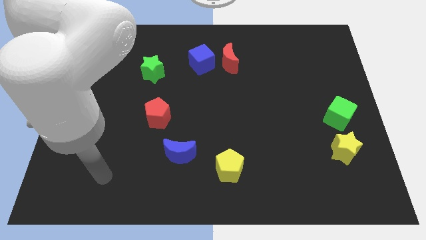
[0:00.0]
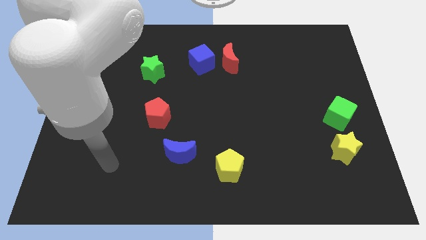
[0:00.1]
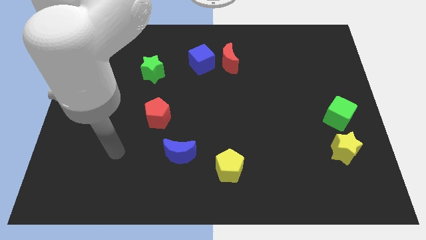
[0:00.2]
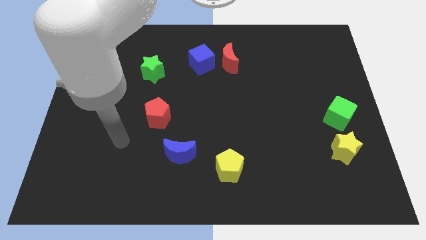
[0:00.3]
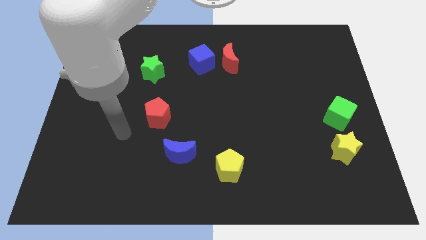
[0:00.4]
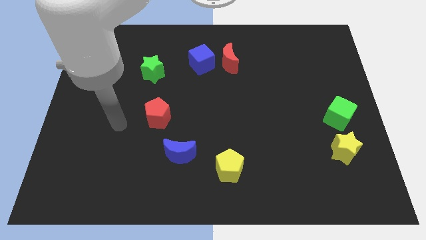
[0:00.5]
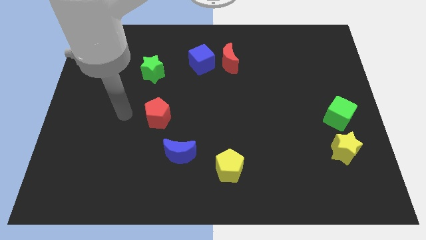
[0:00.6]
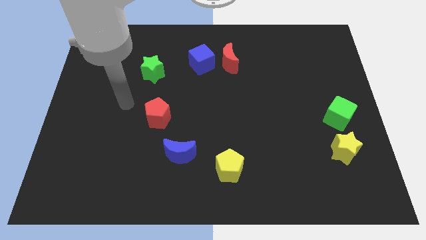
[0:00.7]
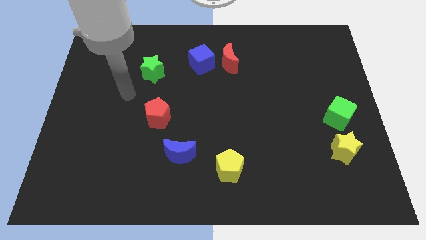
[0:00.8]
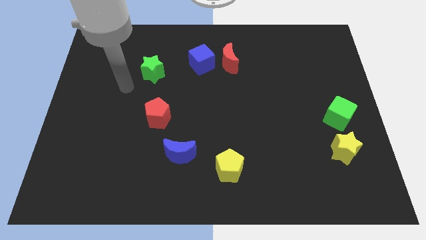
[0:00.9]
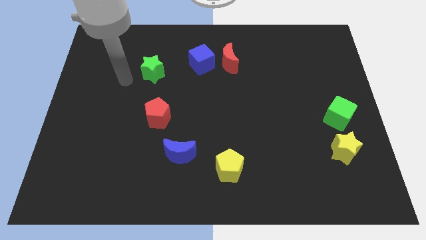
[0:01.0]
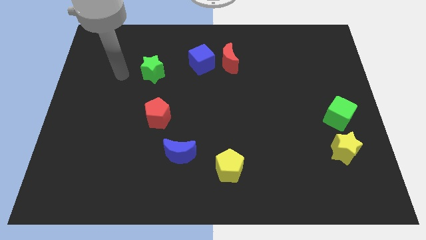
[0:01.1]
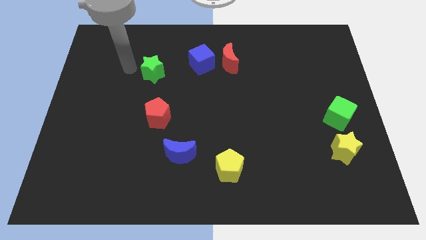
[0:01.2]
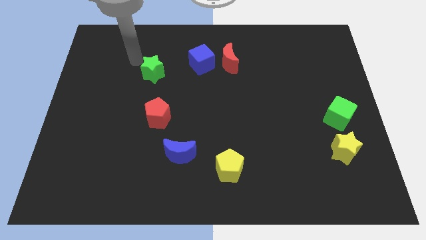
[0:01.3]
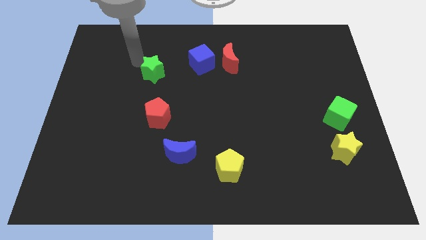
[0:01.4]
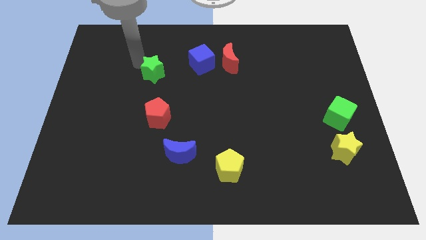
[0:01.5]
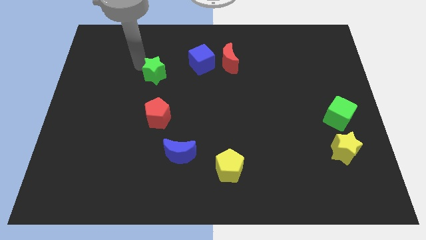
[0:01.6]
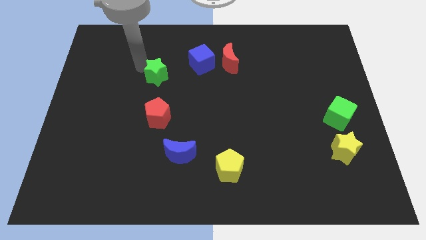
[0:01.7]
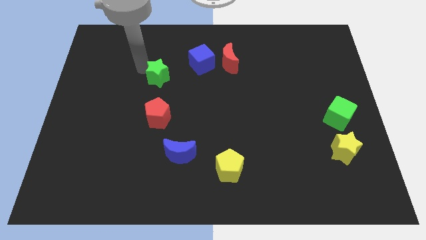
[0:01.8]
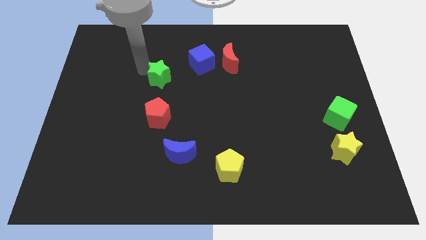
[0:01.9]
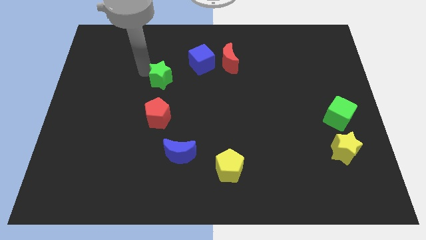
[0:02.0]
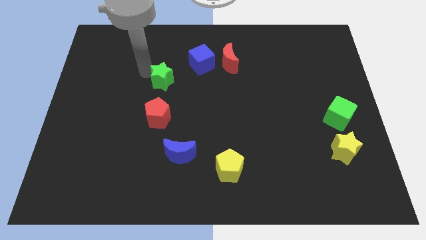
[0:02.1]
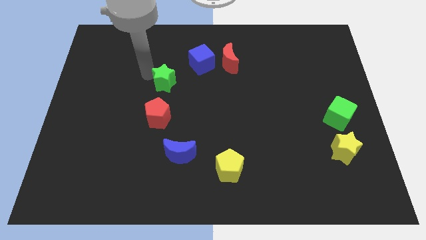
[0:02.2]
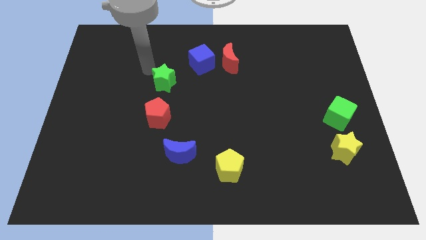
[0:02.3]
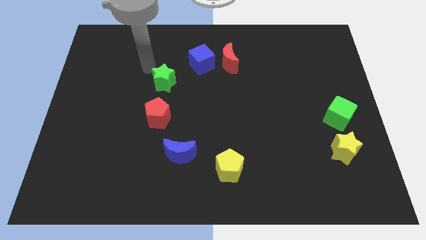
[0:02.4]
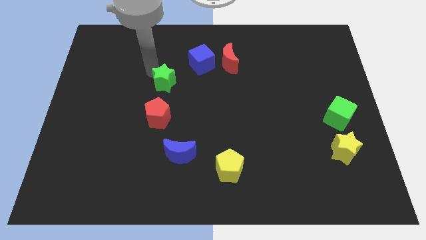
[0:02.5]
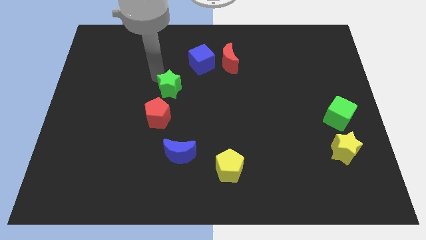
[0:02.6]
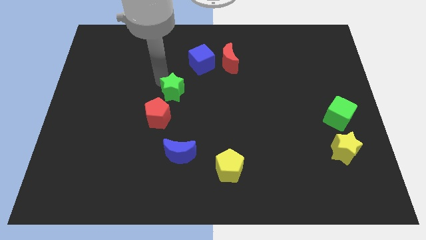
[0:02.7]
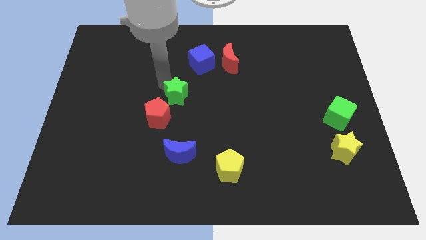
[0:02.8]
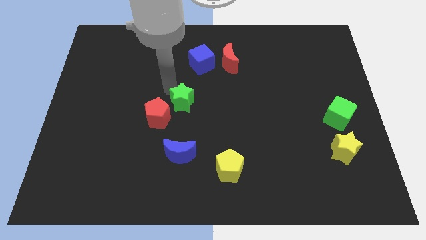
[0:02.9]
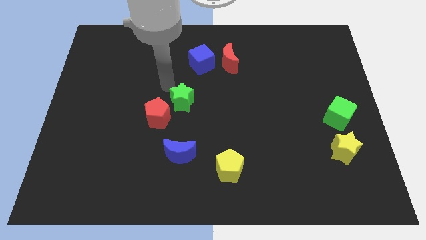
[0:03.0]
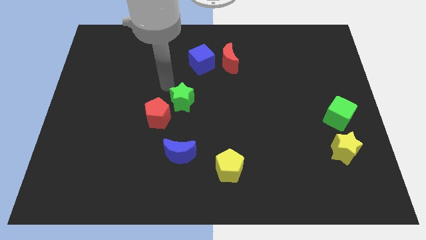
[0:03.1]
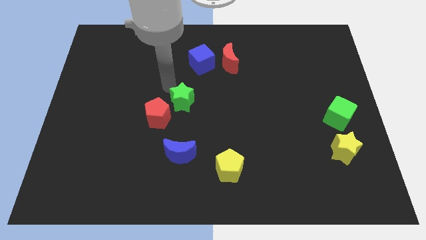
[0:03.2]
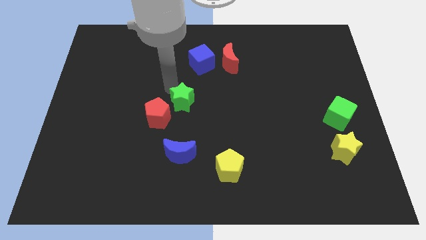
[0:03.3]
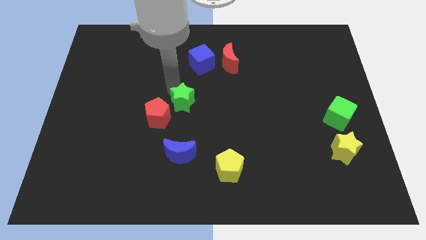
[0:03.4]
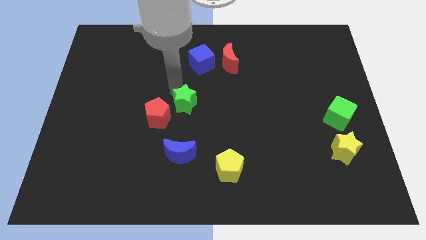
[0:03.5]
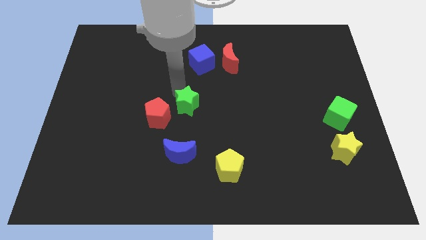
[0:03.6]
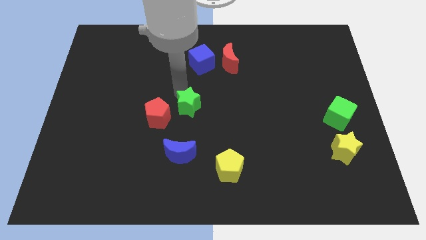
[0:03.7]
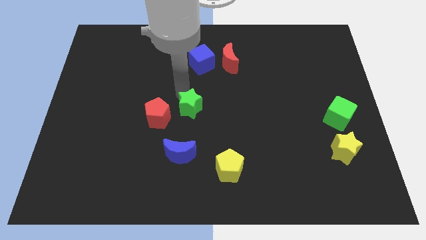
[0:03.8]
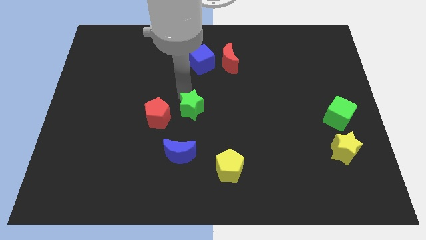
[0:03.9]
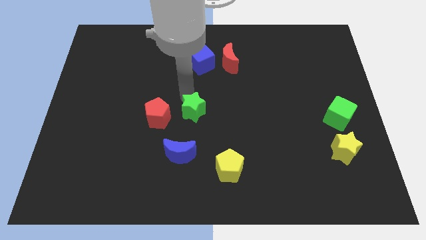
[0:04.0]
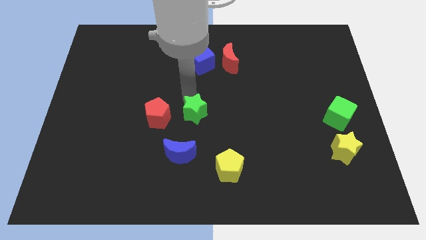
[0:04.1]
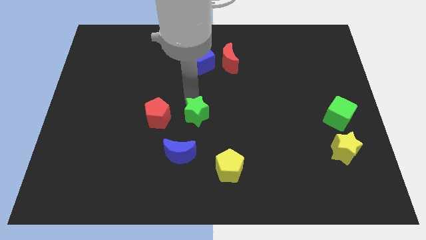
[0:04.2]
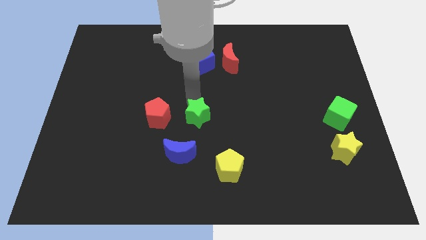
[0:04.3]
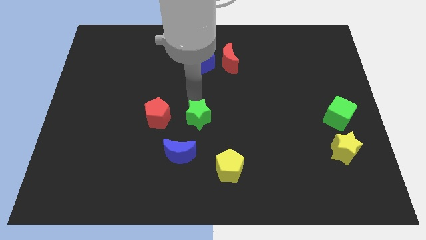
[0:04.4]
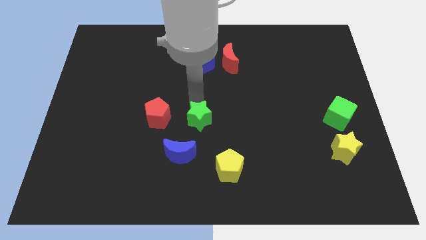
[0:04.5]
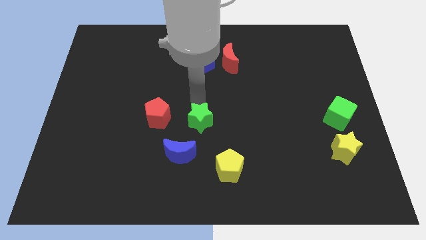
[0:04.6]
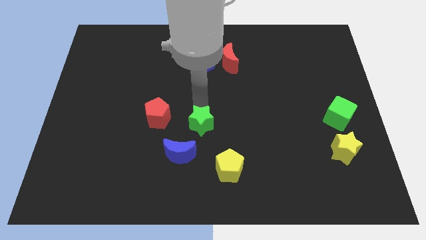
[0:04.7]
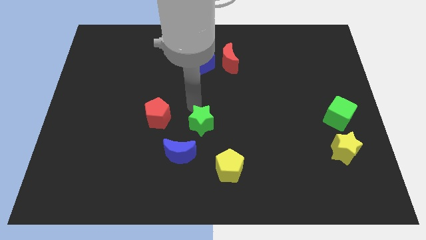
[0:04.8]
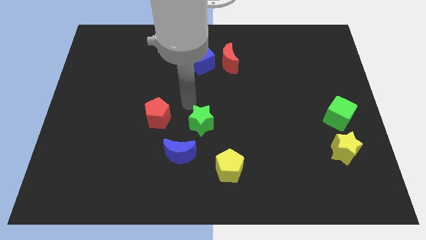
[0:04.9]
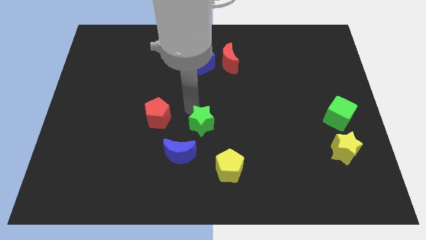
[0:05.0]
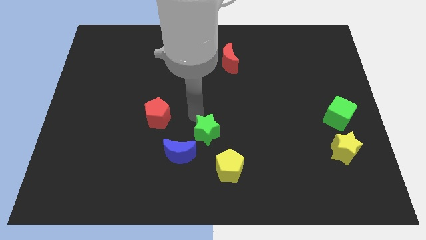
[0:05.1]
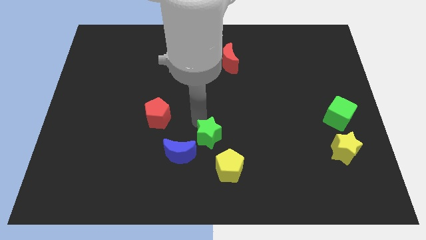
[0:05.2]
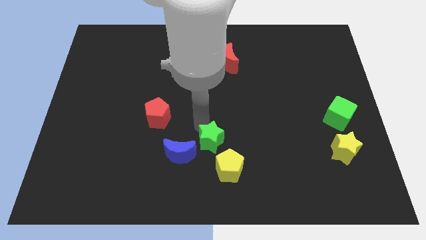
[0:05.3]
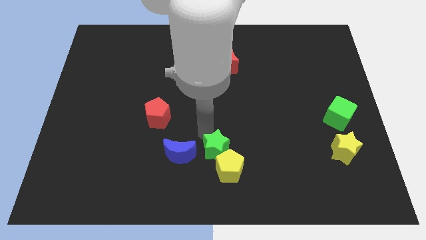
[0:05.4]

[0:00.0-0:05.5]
move the green star next to the yellow pentagon

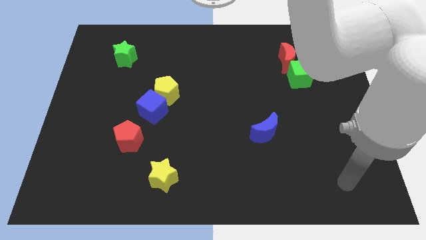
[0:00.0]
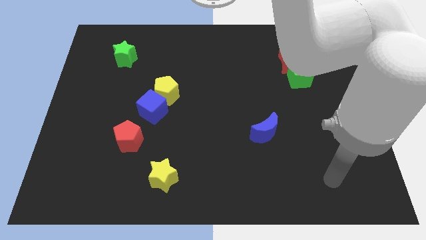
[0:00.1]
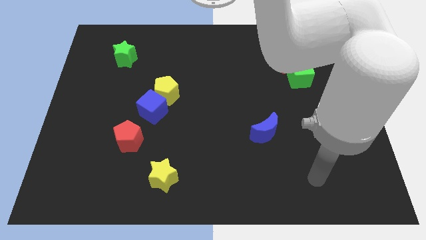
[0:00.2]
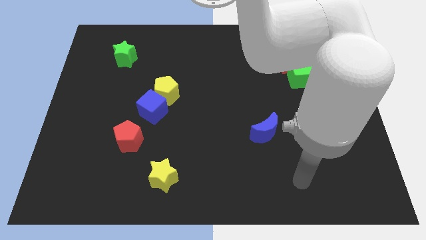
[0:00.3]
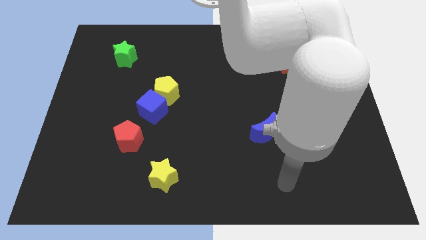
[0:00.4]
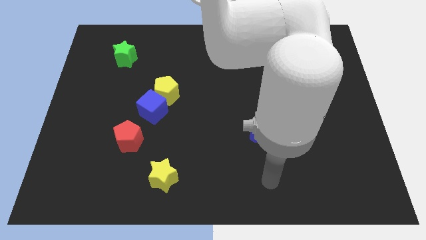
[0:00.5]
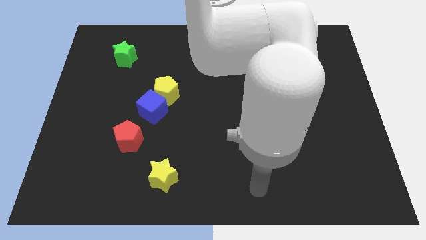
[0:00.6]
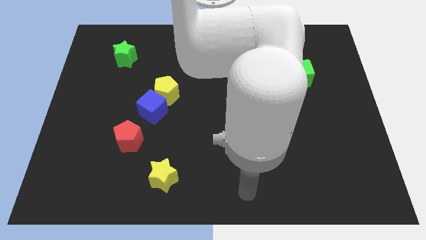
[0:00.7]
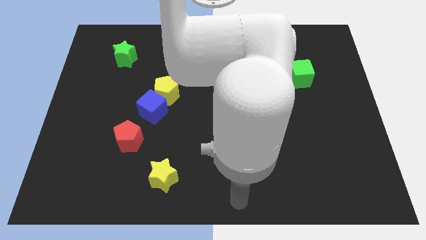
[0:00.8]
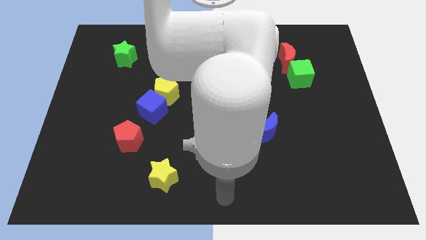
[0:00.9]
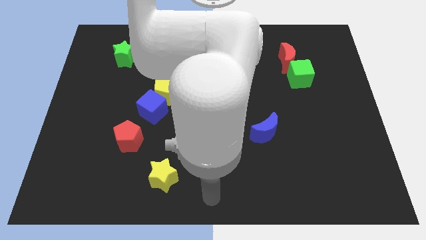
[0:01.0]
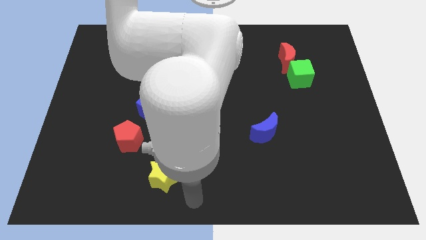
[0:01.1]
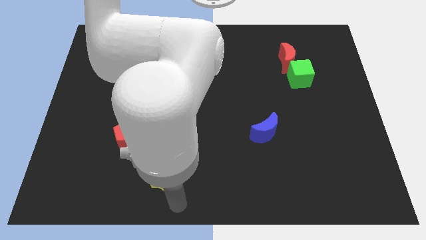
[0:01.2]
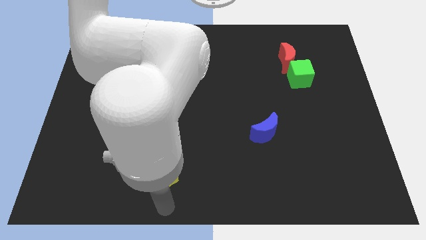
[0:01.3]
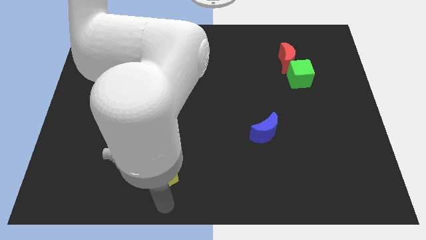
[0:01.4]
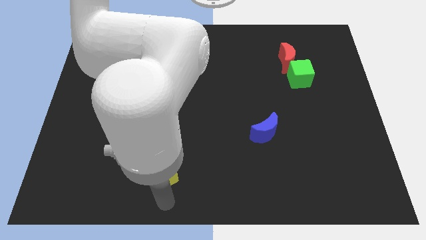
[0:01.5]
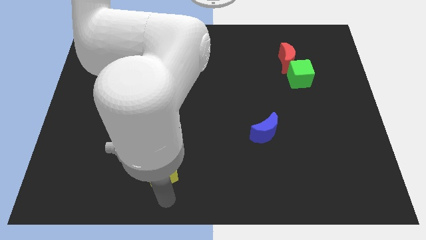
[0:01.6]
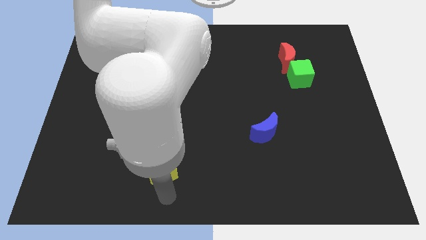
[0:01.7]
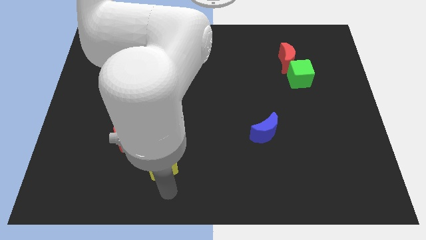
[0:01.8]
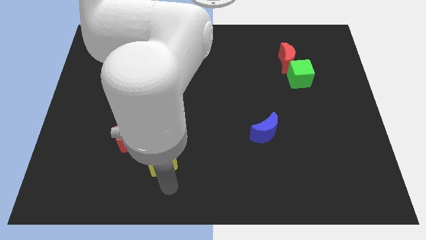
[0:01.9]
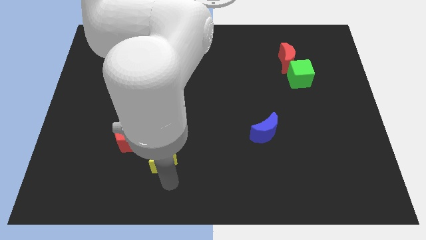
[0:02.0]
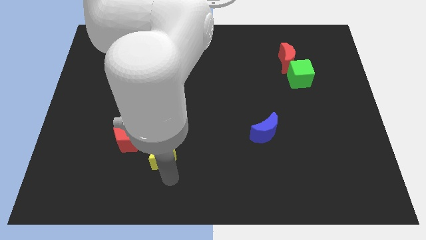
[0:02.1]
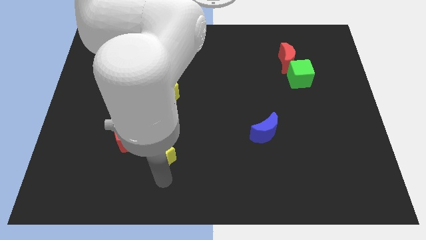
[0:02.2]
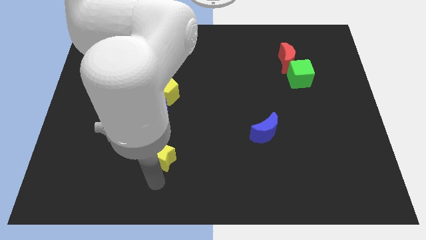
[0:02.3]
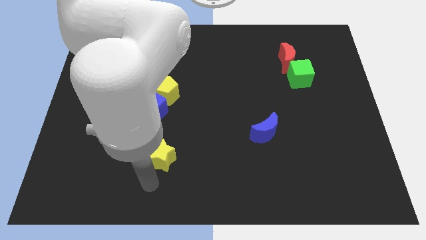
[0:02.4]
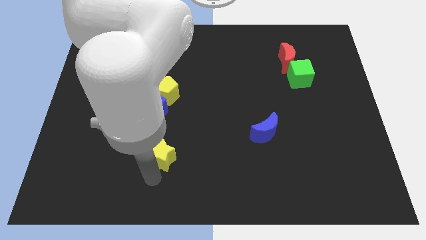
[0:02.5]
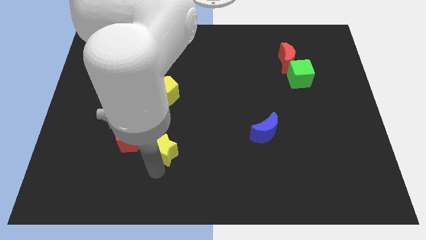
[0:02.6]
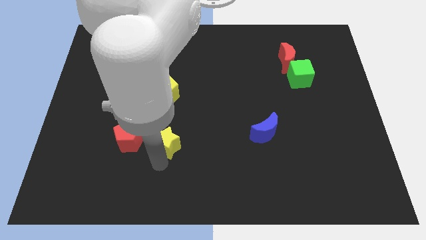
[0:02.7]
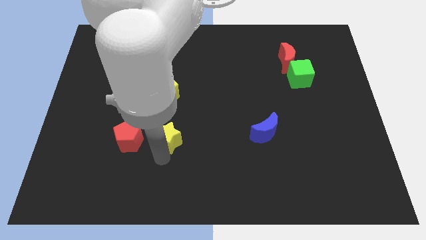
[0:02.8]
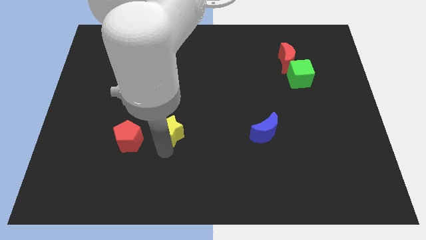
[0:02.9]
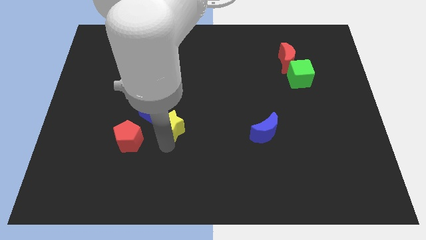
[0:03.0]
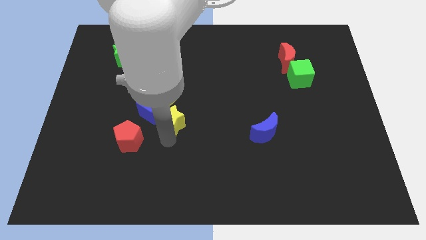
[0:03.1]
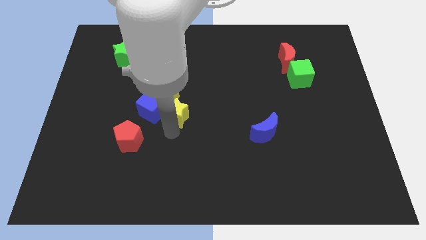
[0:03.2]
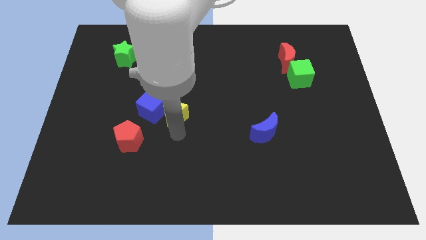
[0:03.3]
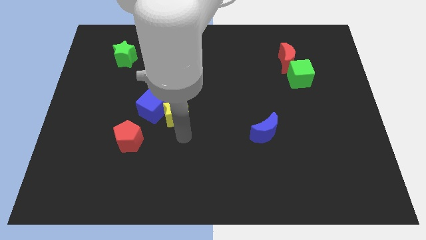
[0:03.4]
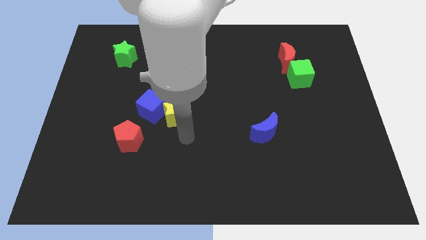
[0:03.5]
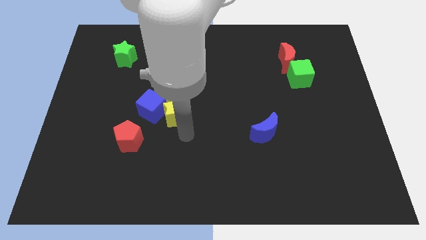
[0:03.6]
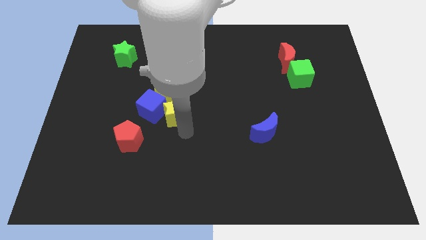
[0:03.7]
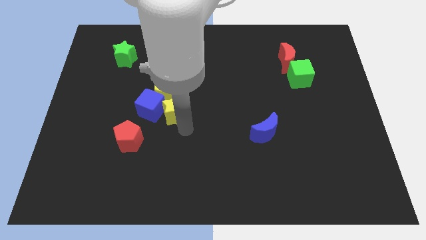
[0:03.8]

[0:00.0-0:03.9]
slide the yellow star close to the yellow pentagon
